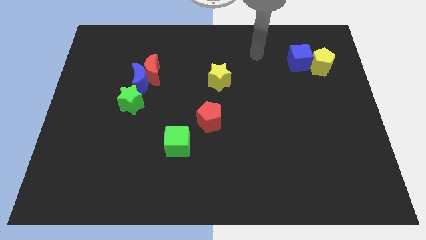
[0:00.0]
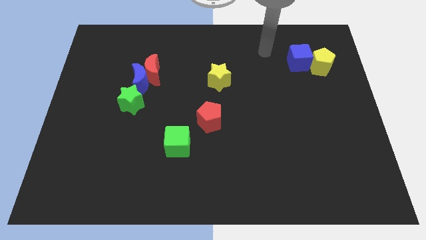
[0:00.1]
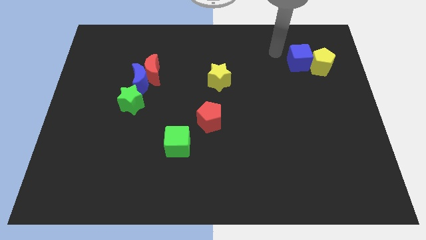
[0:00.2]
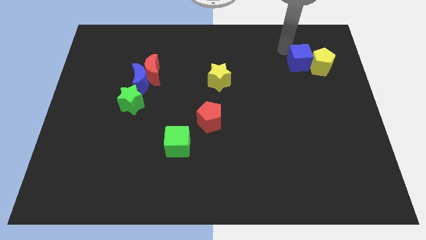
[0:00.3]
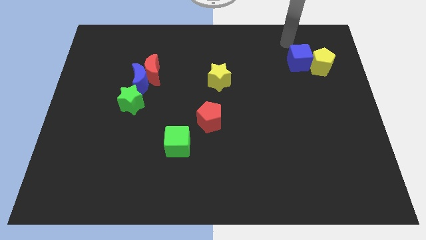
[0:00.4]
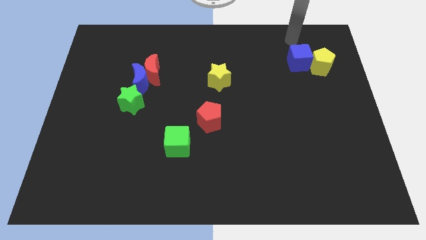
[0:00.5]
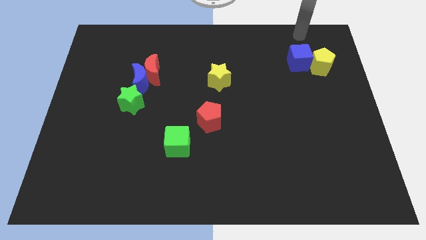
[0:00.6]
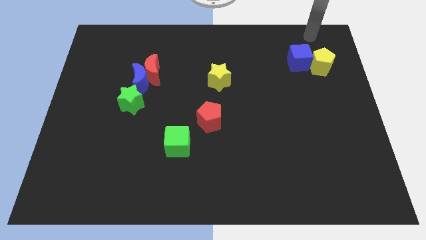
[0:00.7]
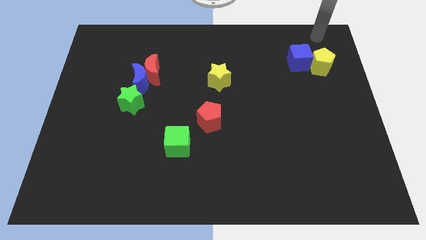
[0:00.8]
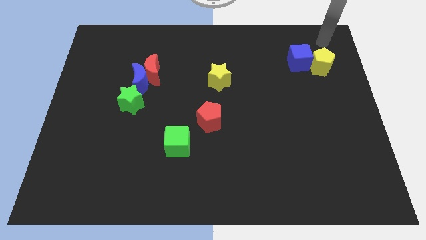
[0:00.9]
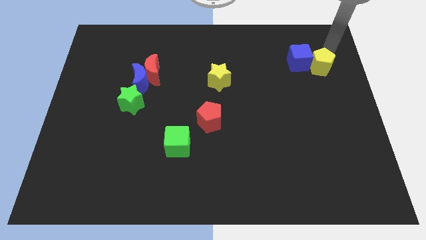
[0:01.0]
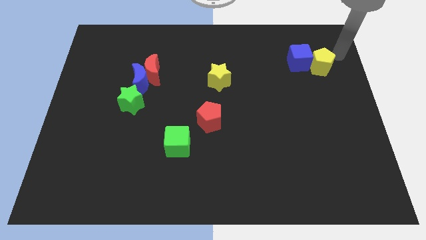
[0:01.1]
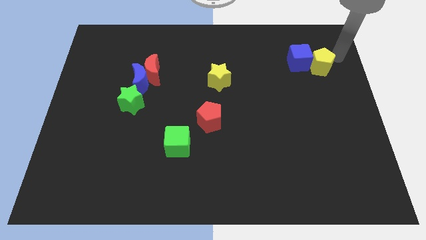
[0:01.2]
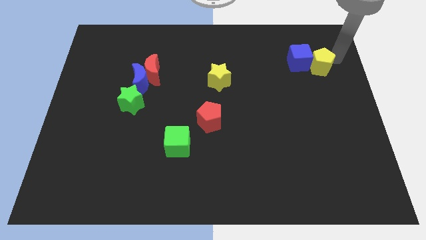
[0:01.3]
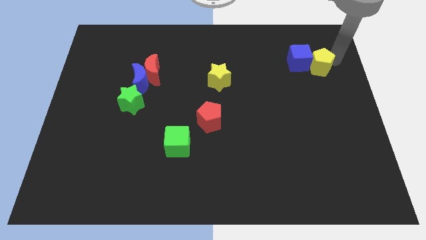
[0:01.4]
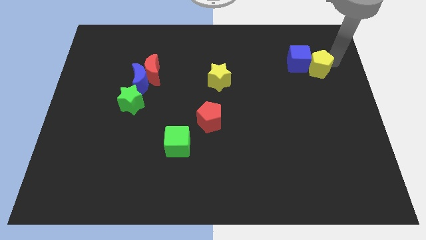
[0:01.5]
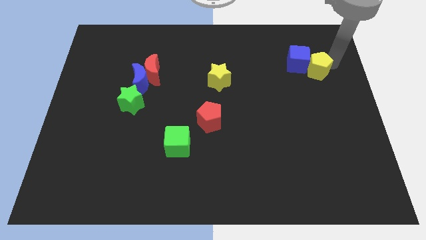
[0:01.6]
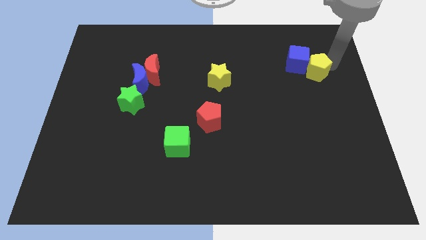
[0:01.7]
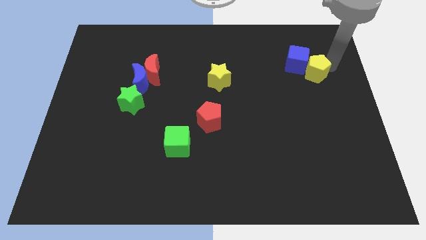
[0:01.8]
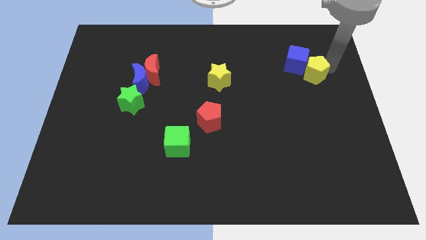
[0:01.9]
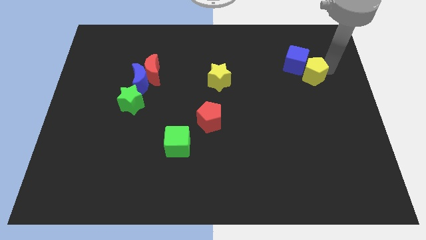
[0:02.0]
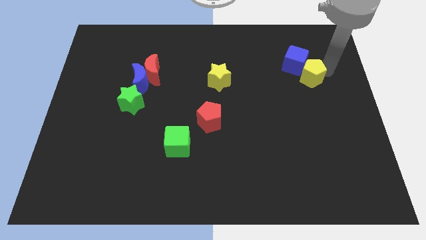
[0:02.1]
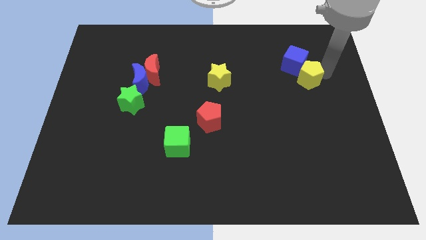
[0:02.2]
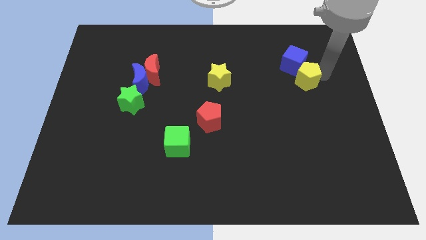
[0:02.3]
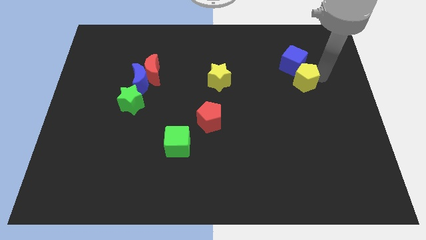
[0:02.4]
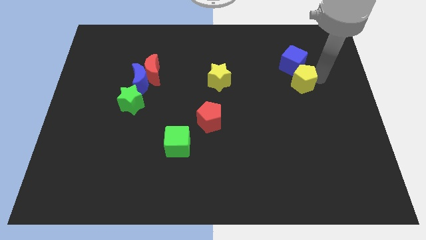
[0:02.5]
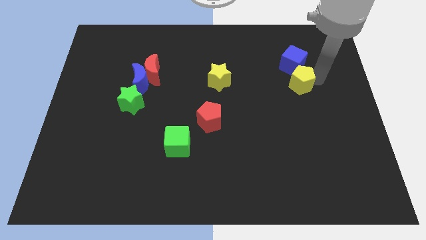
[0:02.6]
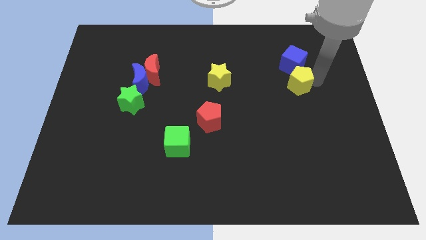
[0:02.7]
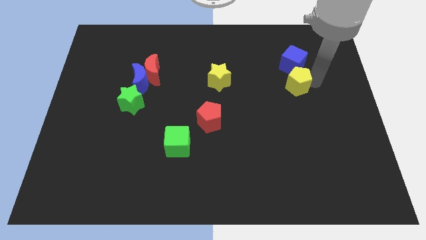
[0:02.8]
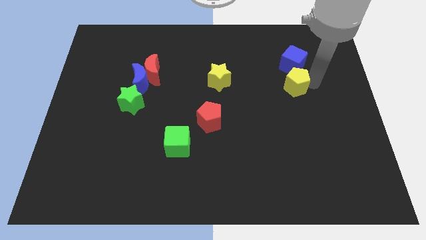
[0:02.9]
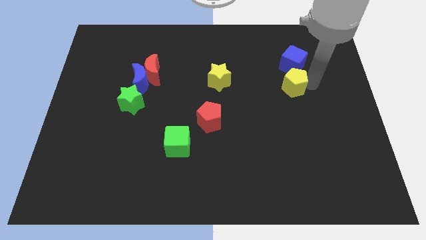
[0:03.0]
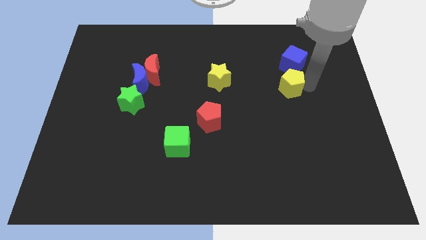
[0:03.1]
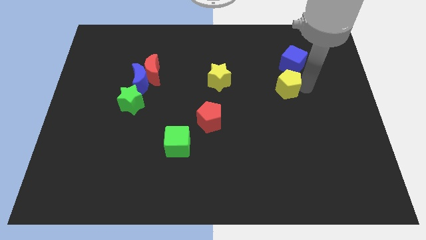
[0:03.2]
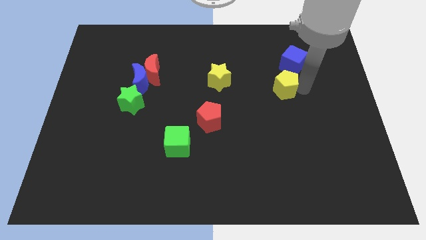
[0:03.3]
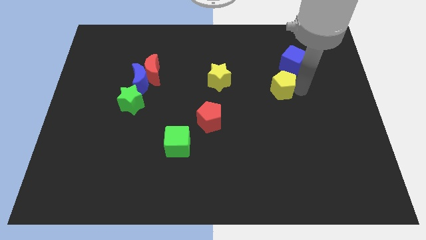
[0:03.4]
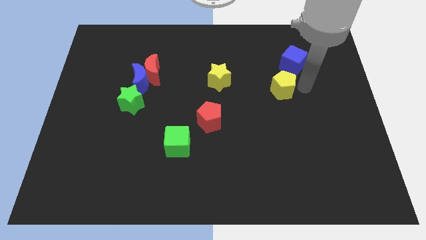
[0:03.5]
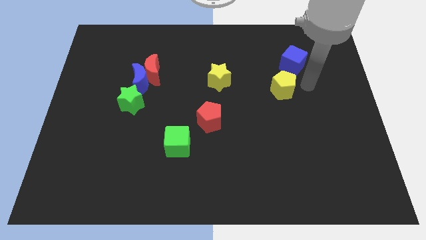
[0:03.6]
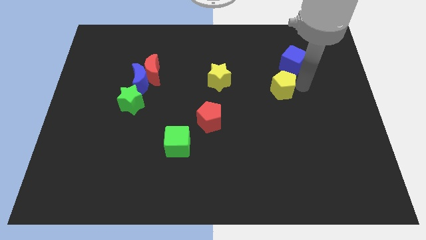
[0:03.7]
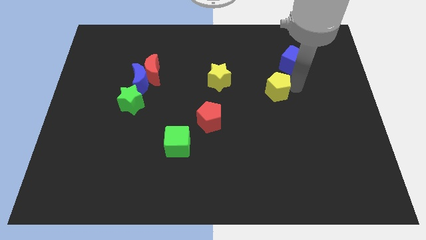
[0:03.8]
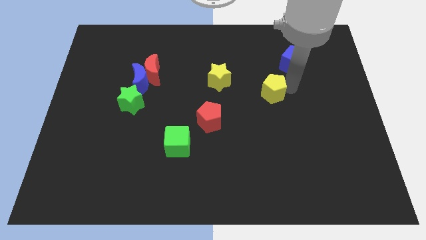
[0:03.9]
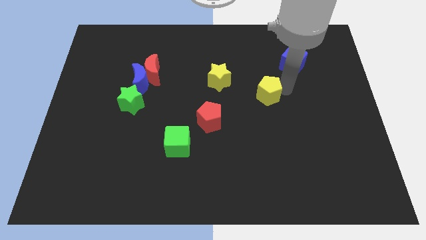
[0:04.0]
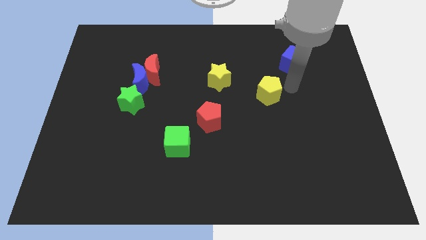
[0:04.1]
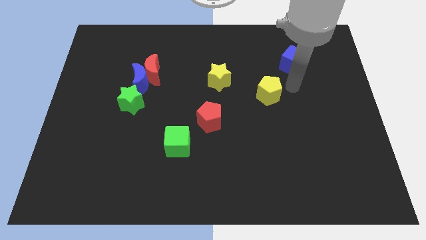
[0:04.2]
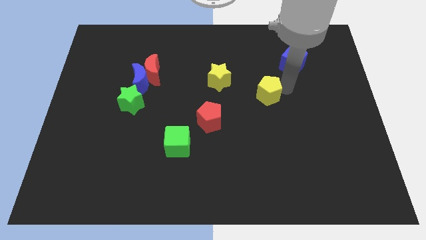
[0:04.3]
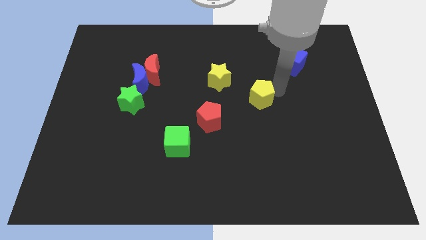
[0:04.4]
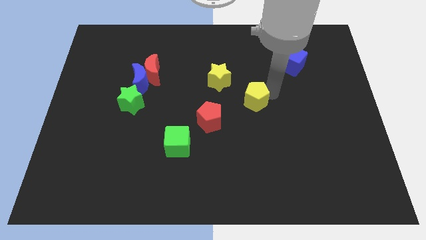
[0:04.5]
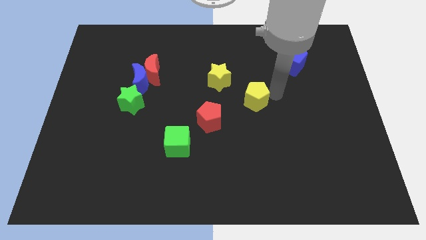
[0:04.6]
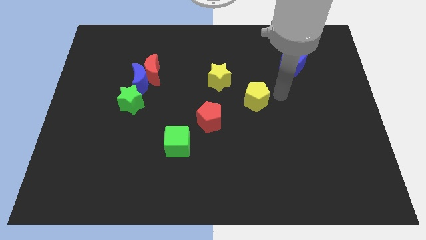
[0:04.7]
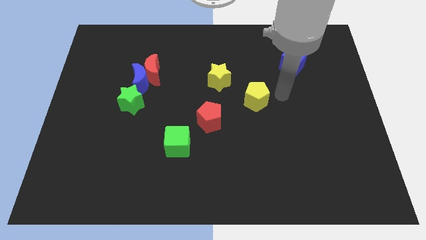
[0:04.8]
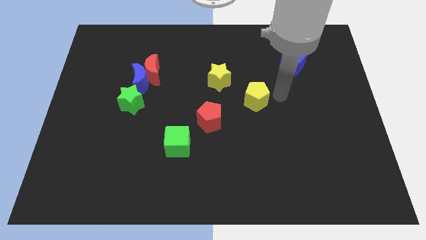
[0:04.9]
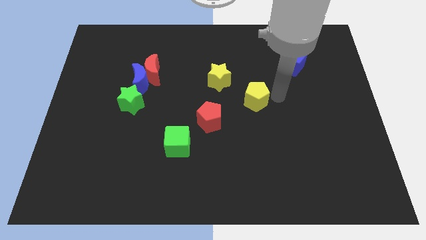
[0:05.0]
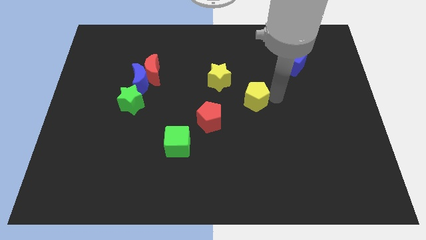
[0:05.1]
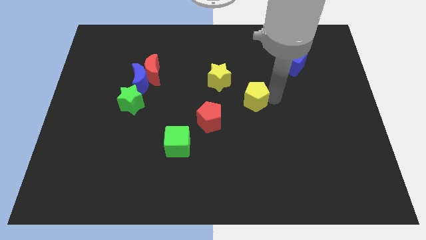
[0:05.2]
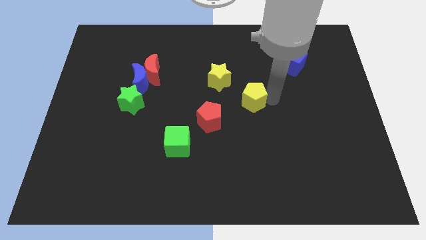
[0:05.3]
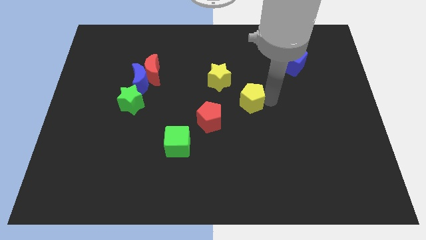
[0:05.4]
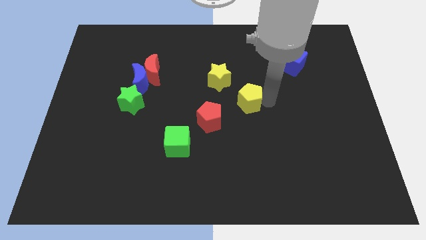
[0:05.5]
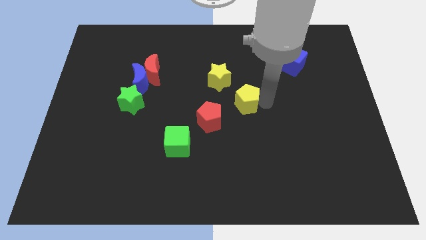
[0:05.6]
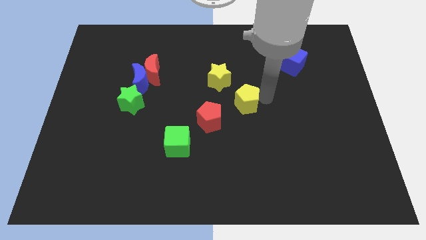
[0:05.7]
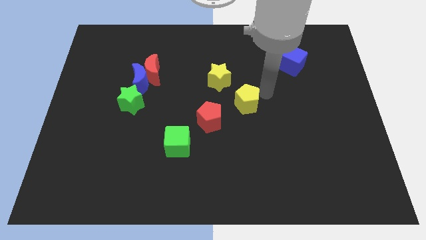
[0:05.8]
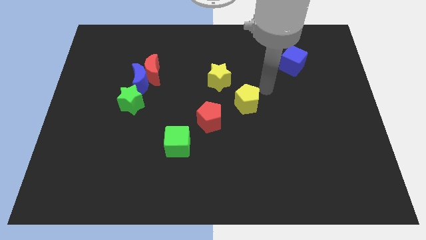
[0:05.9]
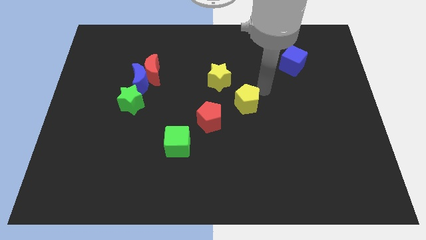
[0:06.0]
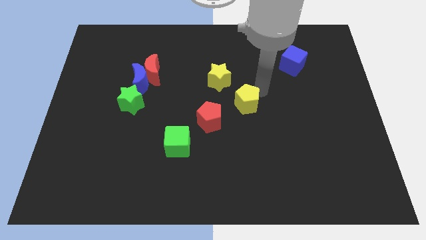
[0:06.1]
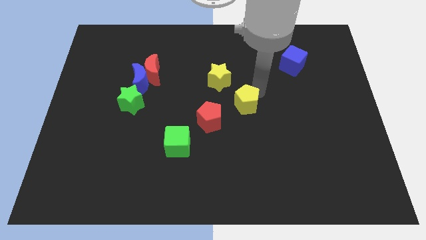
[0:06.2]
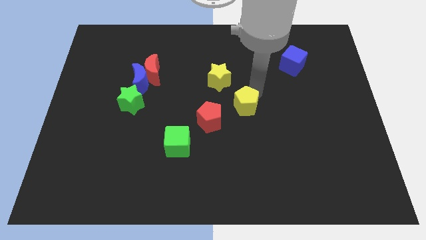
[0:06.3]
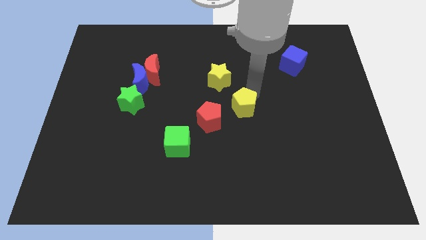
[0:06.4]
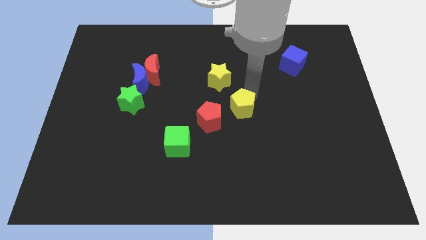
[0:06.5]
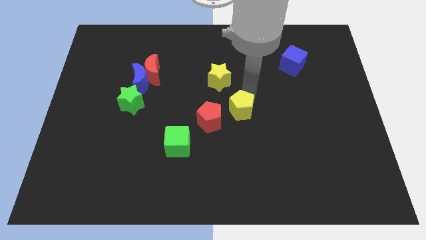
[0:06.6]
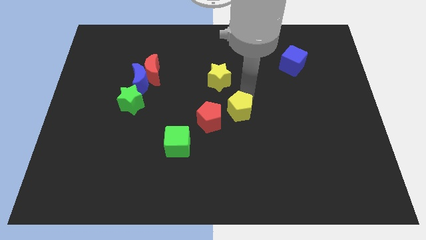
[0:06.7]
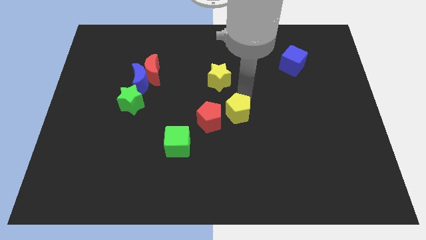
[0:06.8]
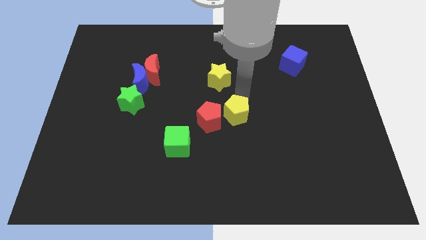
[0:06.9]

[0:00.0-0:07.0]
slide the yellow pentagon next to the red pentagon
